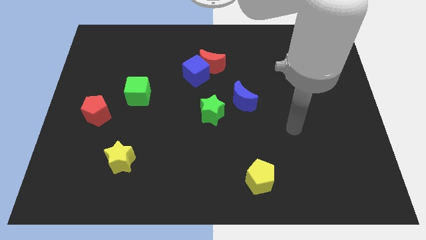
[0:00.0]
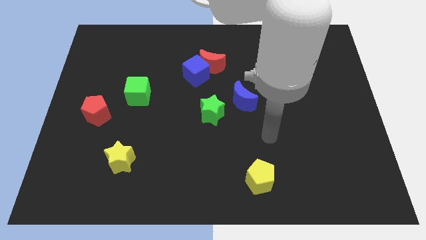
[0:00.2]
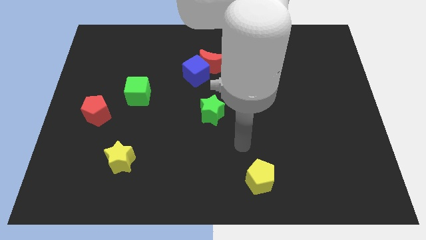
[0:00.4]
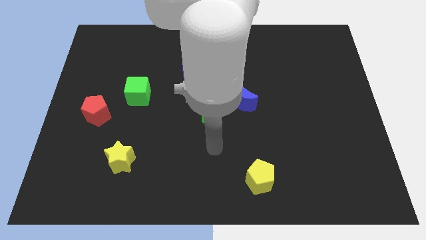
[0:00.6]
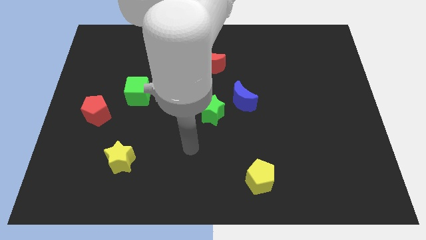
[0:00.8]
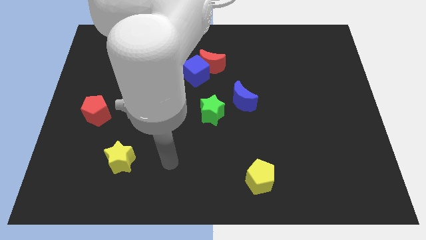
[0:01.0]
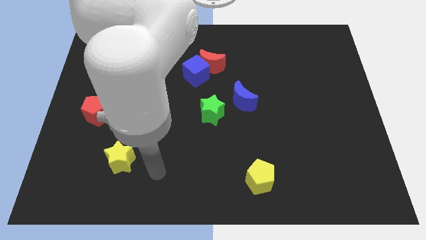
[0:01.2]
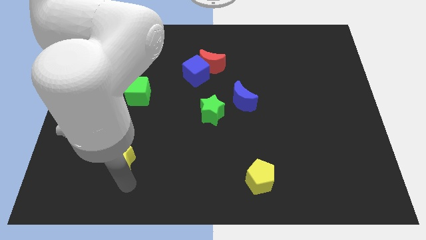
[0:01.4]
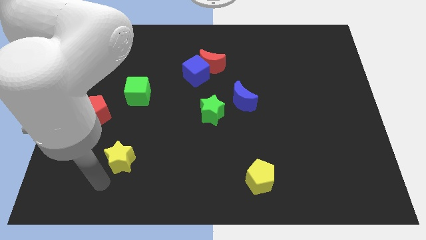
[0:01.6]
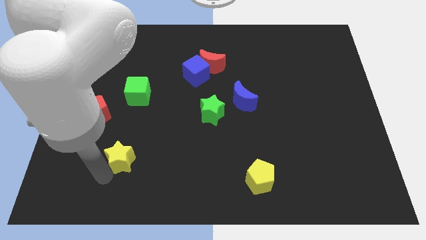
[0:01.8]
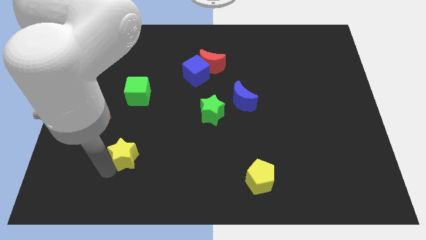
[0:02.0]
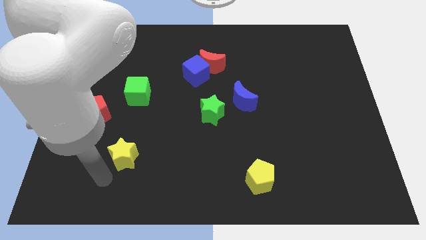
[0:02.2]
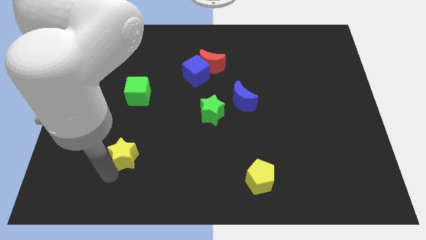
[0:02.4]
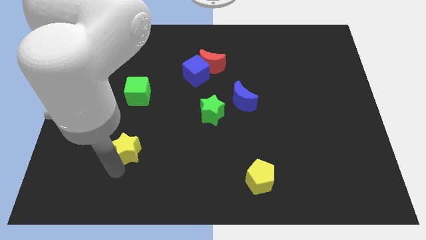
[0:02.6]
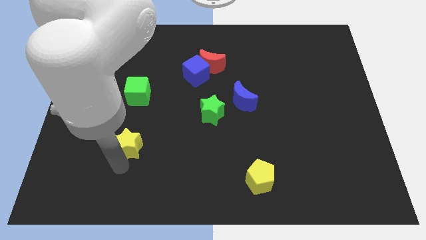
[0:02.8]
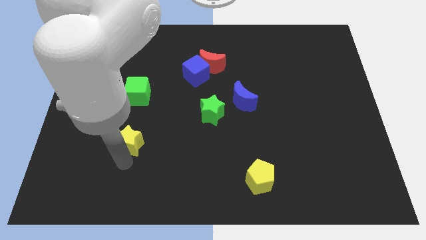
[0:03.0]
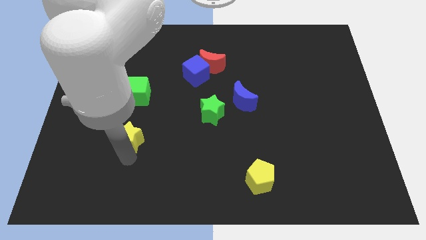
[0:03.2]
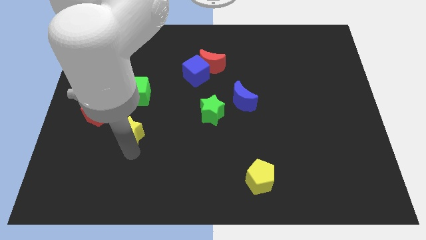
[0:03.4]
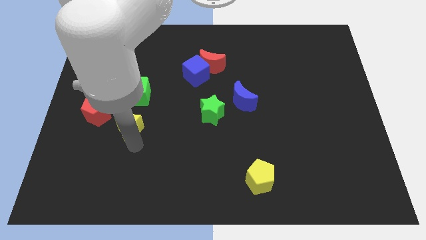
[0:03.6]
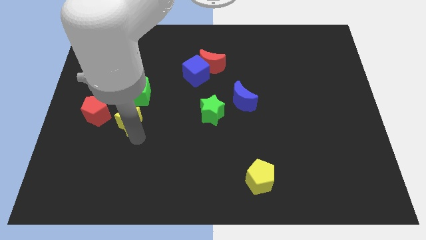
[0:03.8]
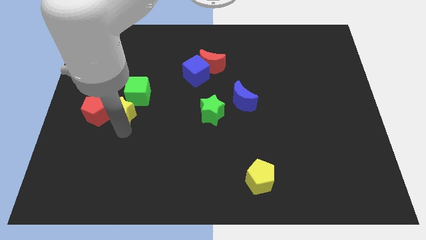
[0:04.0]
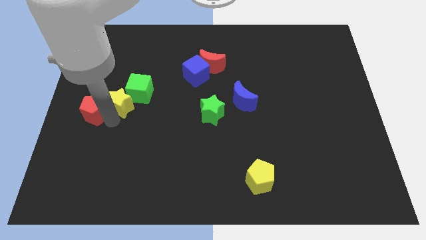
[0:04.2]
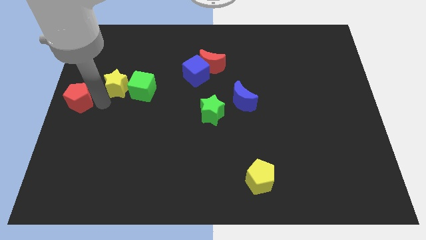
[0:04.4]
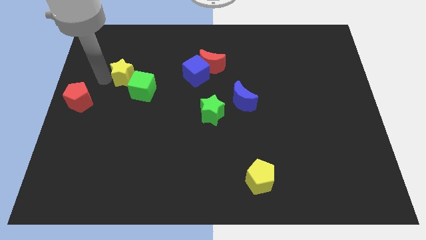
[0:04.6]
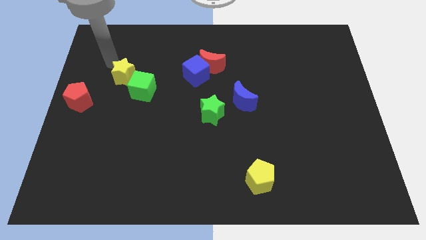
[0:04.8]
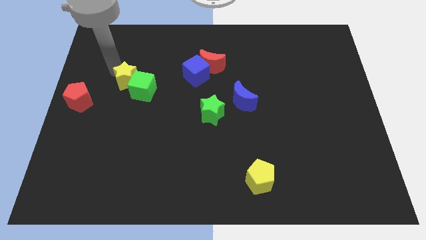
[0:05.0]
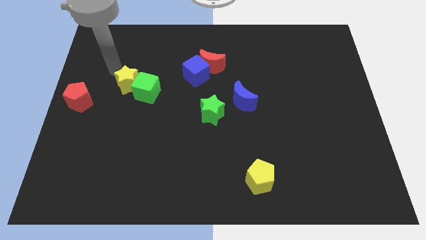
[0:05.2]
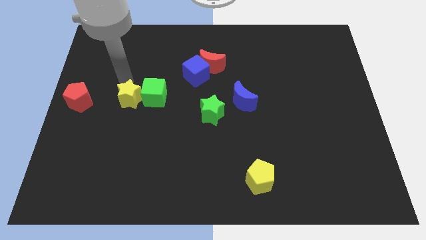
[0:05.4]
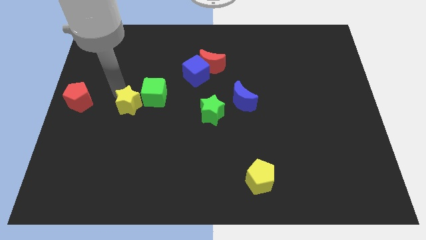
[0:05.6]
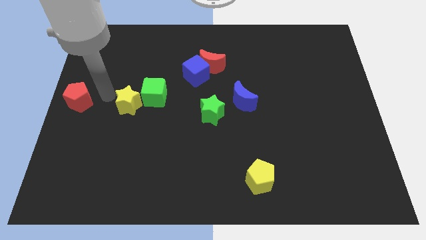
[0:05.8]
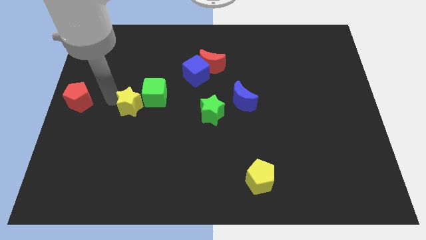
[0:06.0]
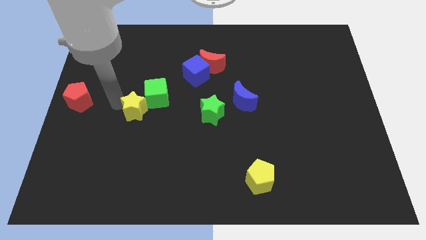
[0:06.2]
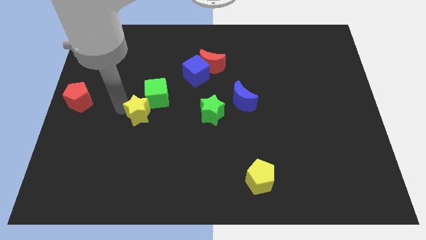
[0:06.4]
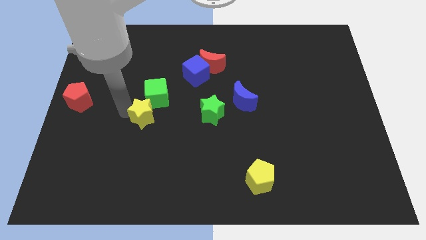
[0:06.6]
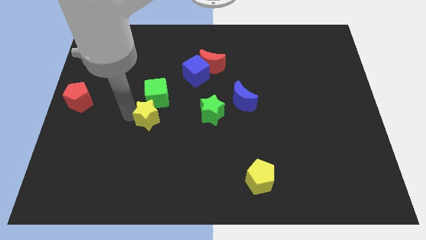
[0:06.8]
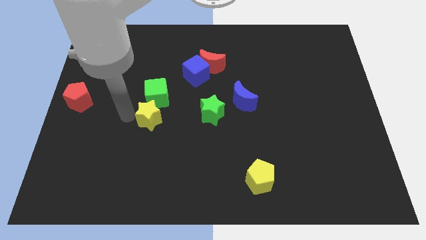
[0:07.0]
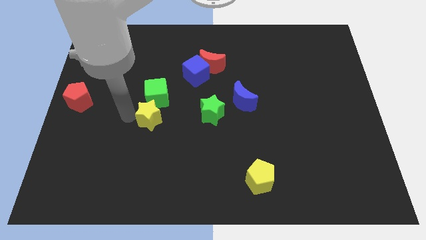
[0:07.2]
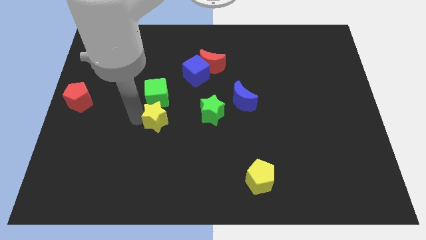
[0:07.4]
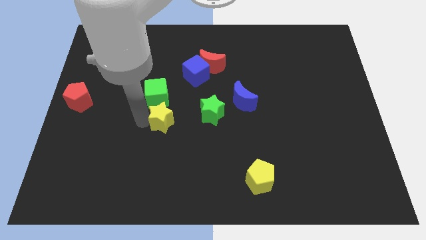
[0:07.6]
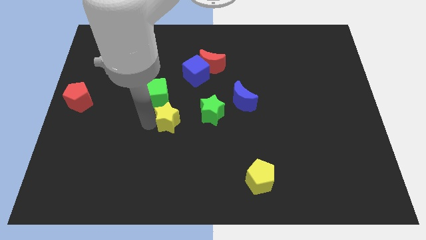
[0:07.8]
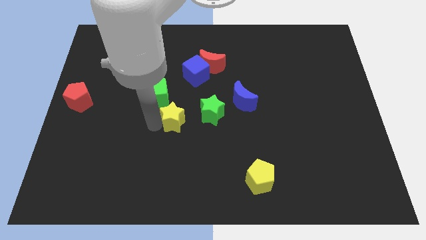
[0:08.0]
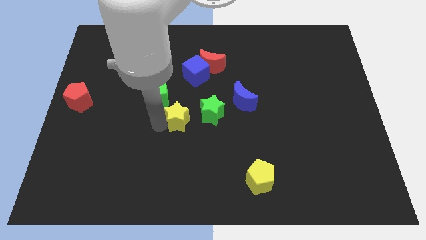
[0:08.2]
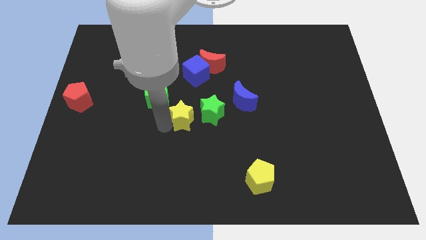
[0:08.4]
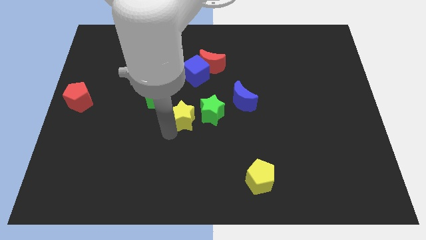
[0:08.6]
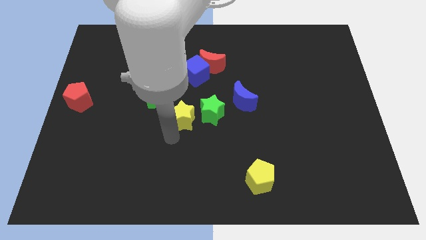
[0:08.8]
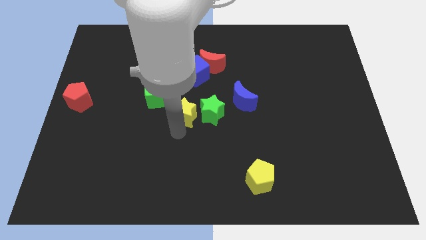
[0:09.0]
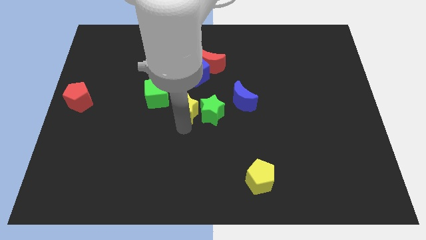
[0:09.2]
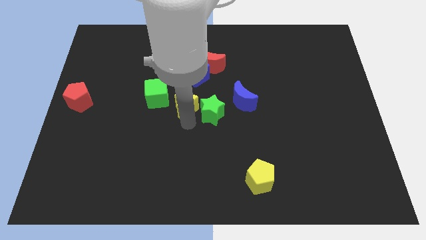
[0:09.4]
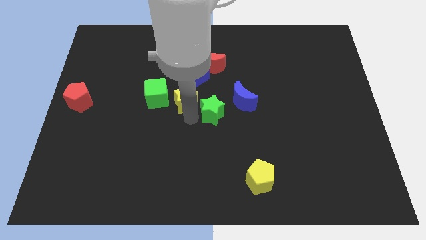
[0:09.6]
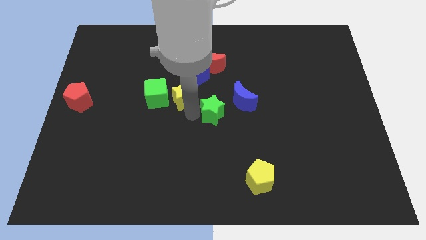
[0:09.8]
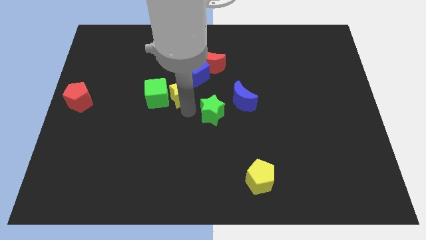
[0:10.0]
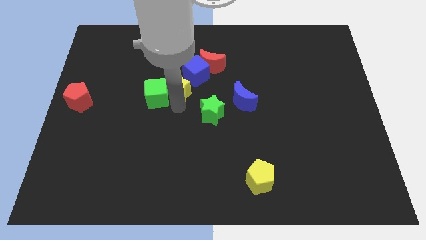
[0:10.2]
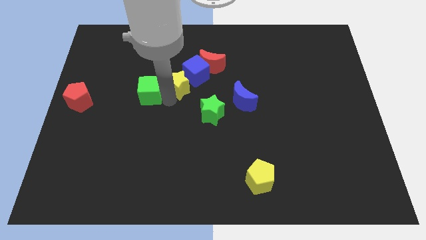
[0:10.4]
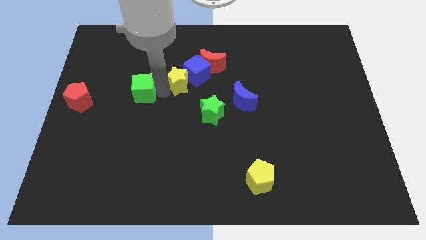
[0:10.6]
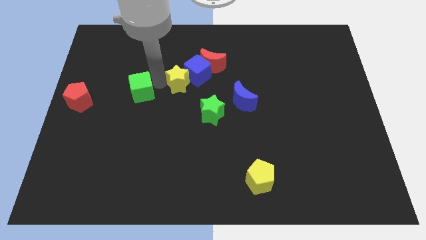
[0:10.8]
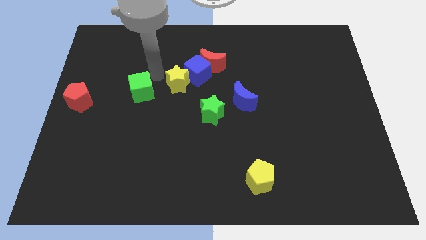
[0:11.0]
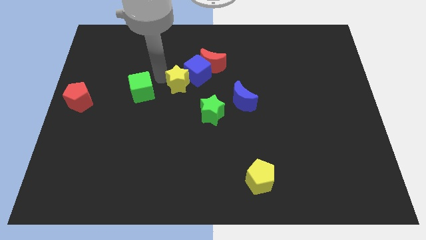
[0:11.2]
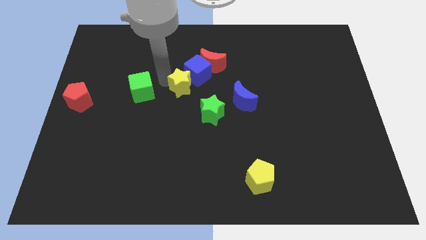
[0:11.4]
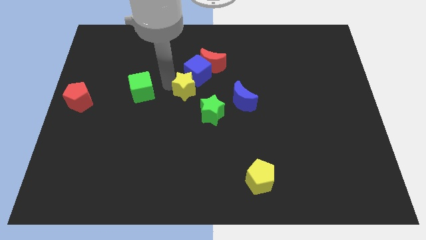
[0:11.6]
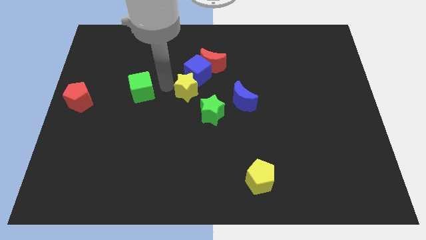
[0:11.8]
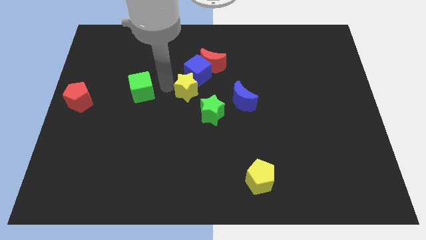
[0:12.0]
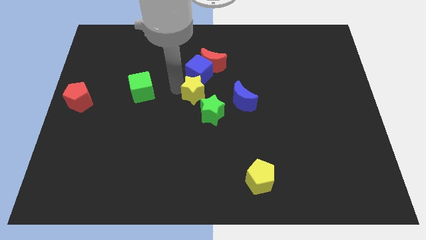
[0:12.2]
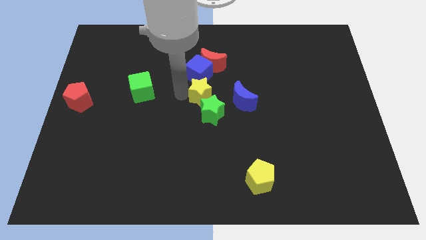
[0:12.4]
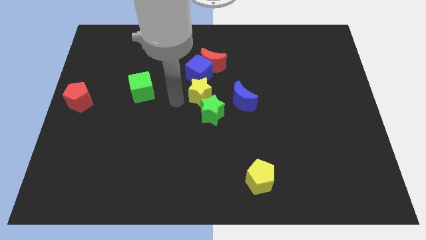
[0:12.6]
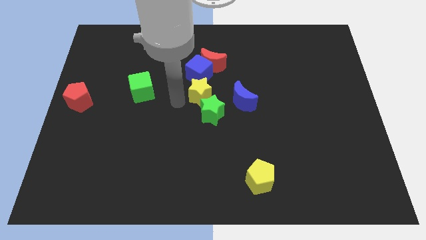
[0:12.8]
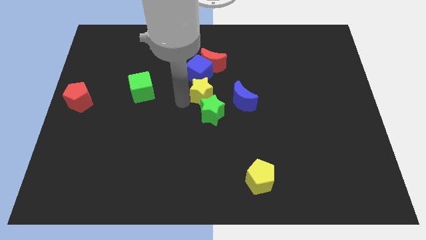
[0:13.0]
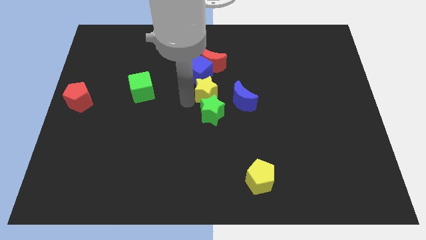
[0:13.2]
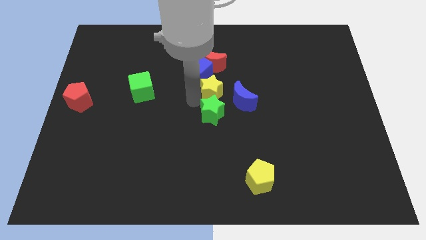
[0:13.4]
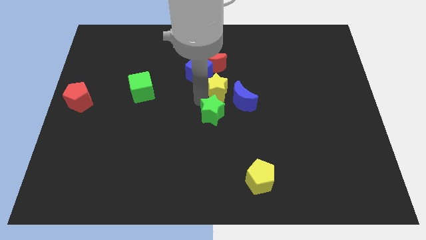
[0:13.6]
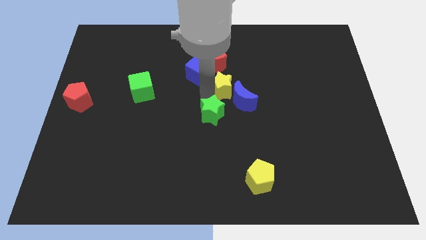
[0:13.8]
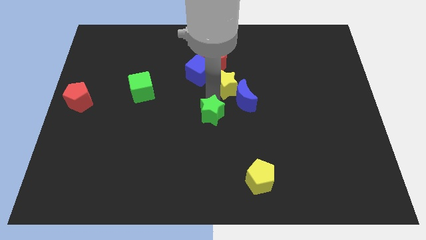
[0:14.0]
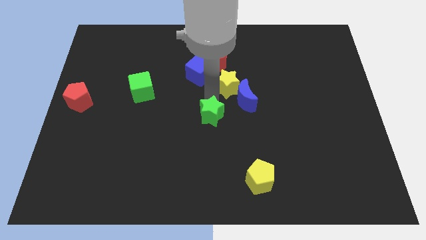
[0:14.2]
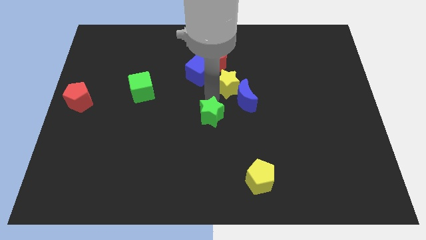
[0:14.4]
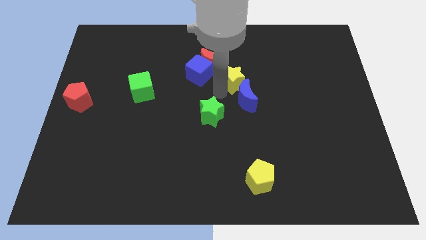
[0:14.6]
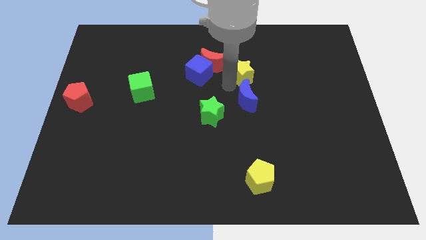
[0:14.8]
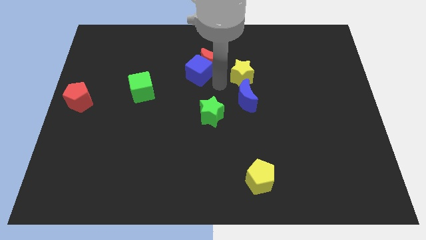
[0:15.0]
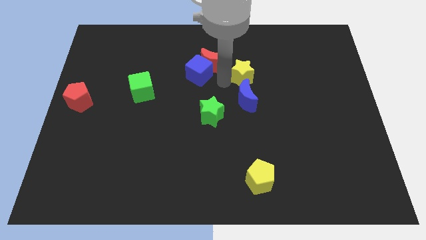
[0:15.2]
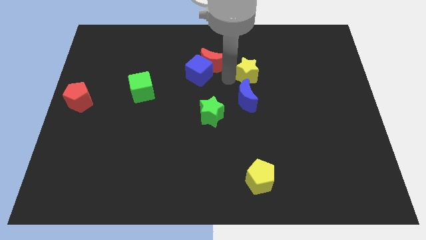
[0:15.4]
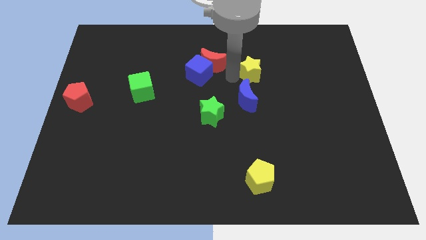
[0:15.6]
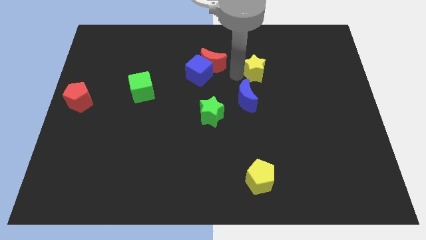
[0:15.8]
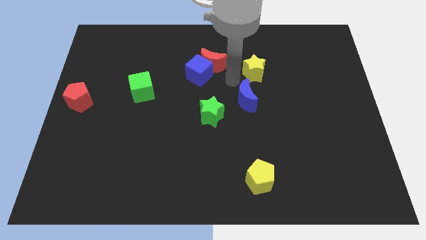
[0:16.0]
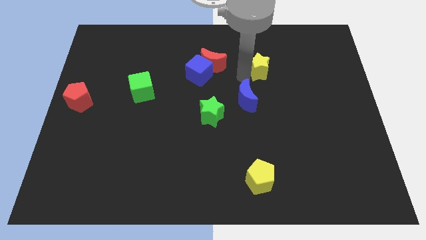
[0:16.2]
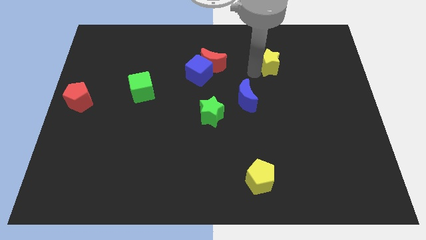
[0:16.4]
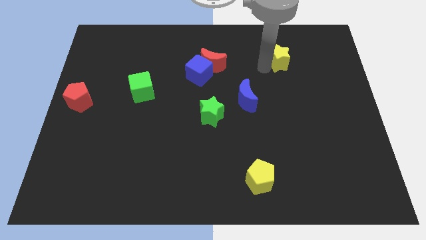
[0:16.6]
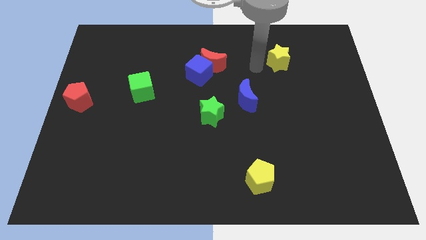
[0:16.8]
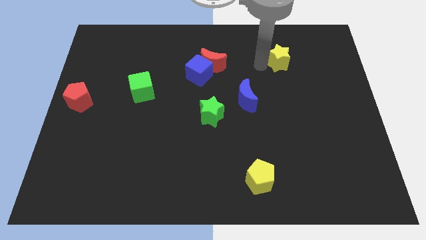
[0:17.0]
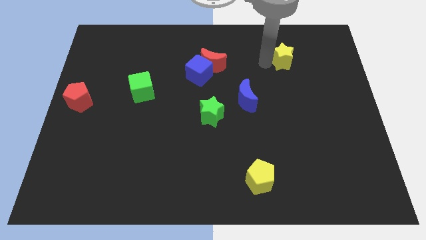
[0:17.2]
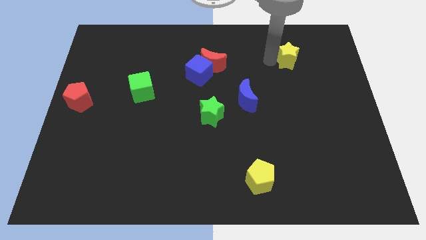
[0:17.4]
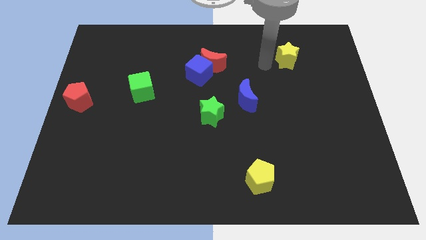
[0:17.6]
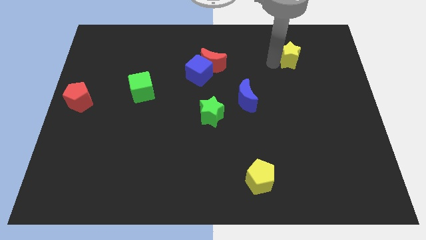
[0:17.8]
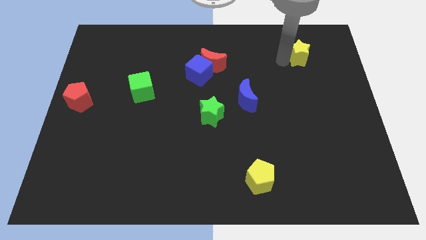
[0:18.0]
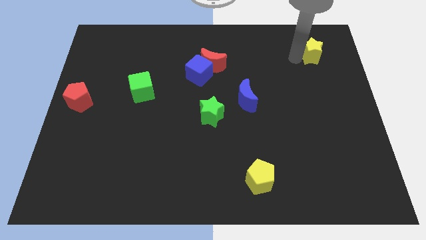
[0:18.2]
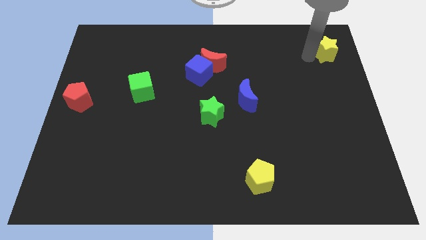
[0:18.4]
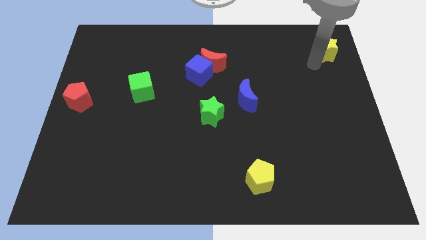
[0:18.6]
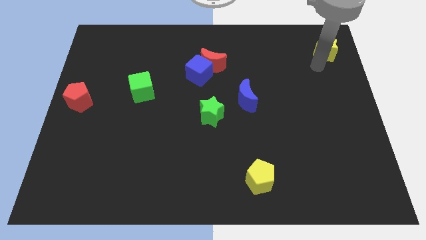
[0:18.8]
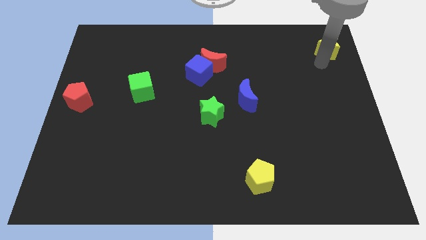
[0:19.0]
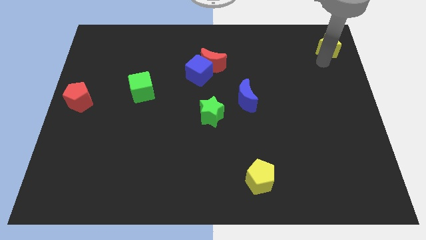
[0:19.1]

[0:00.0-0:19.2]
slide the yellow star to the top right
